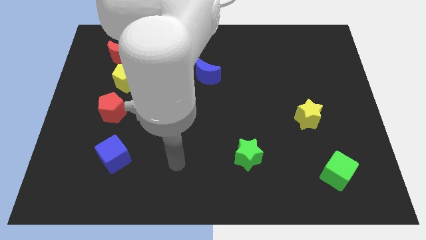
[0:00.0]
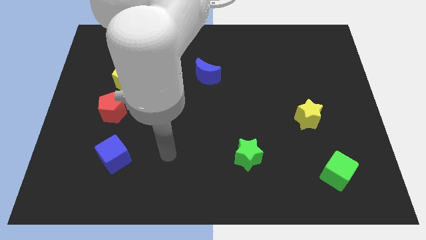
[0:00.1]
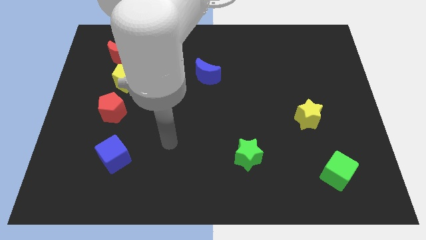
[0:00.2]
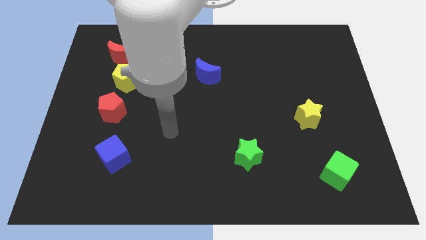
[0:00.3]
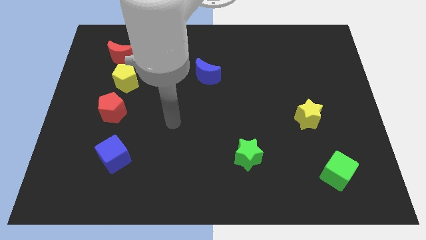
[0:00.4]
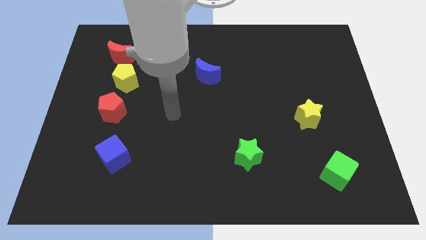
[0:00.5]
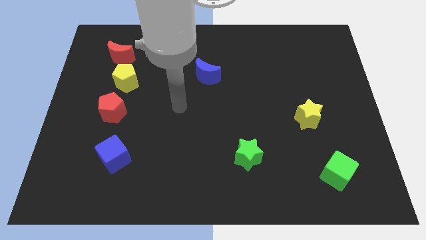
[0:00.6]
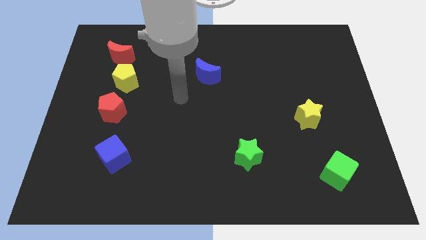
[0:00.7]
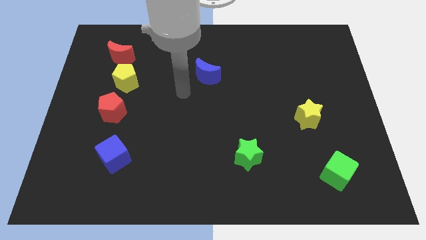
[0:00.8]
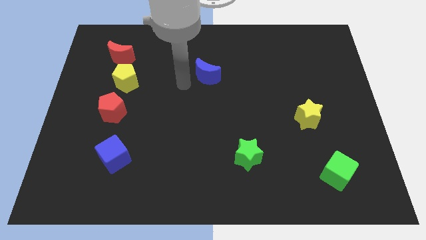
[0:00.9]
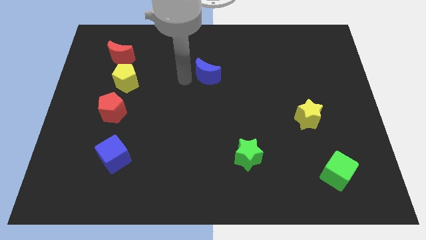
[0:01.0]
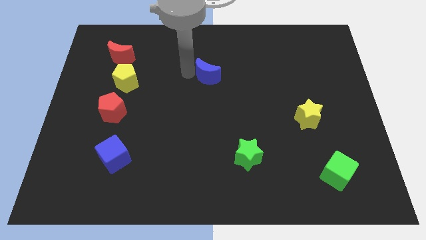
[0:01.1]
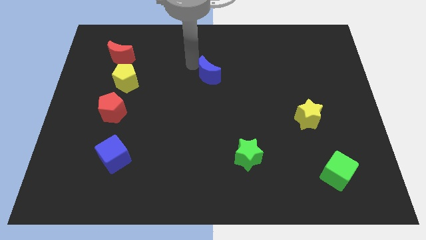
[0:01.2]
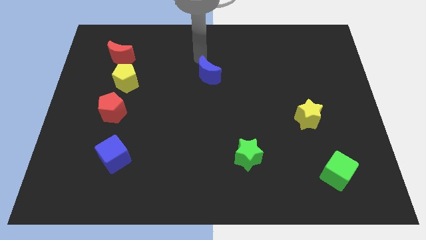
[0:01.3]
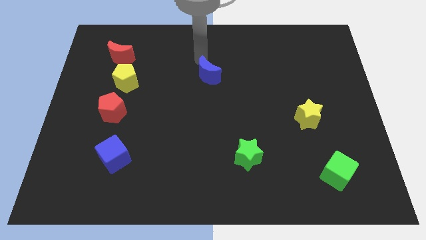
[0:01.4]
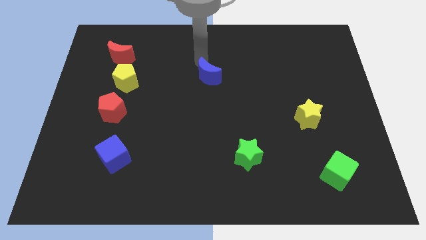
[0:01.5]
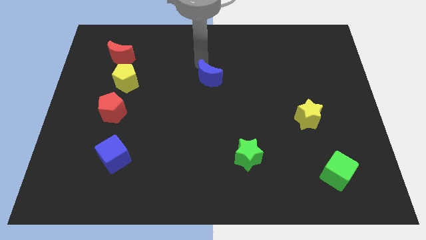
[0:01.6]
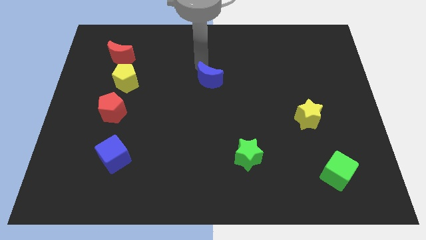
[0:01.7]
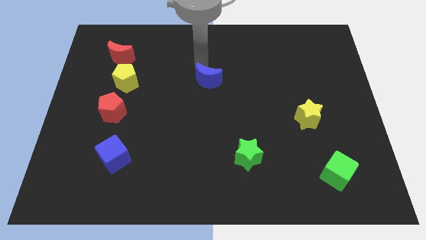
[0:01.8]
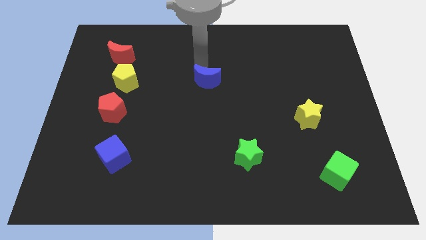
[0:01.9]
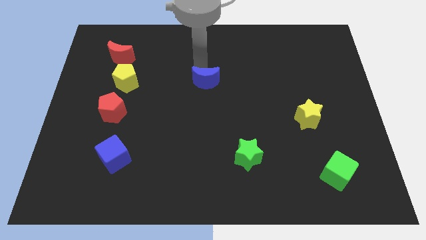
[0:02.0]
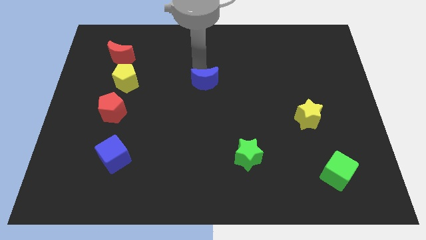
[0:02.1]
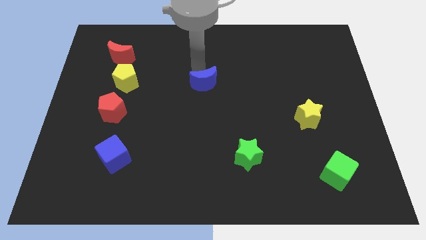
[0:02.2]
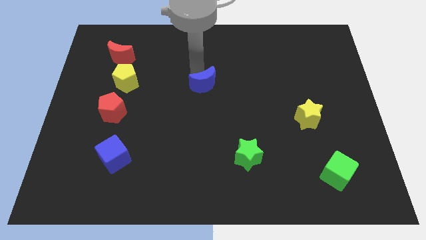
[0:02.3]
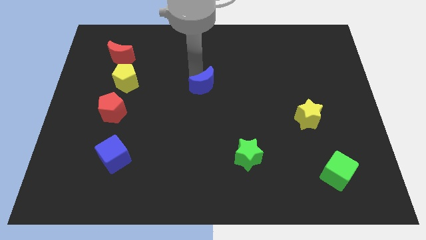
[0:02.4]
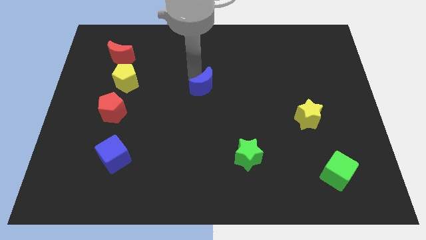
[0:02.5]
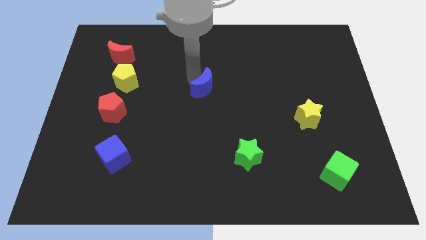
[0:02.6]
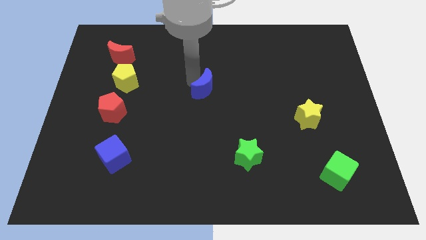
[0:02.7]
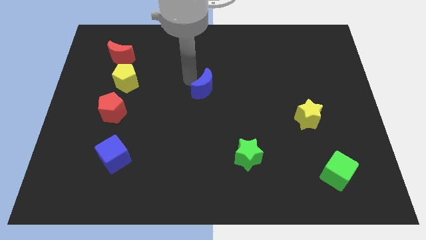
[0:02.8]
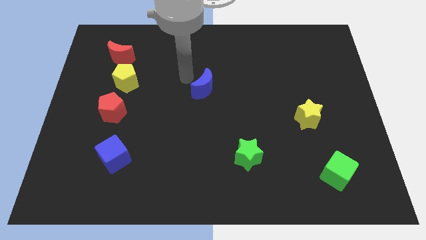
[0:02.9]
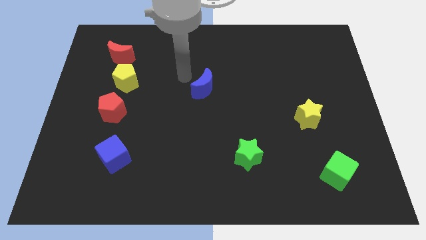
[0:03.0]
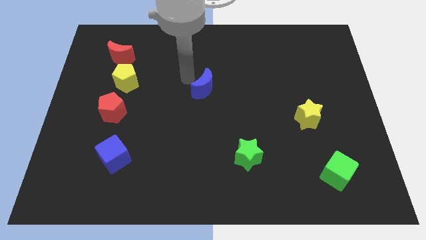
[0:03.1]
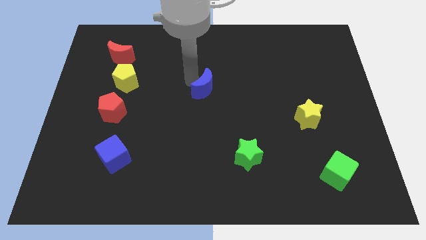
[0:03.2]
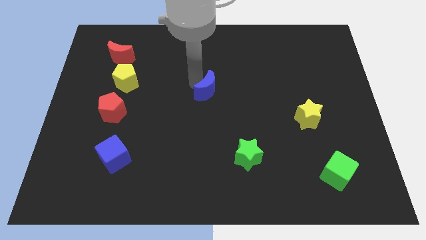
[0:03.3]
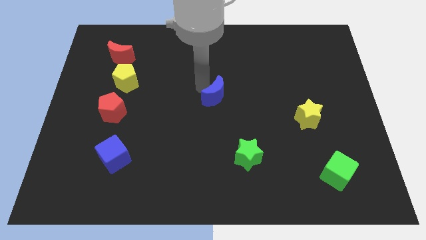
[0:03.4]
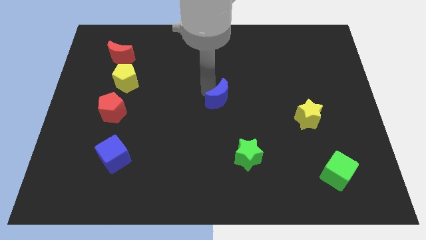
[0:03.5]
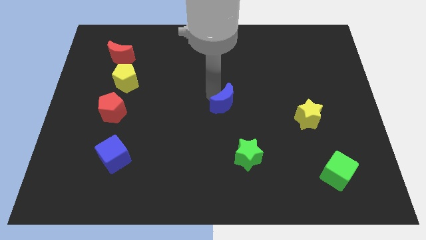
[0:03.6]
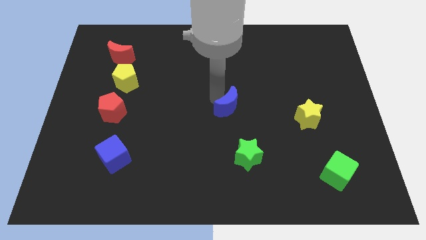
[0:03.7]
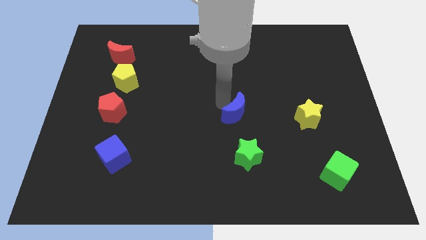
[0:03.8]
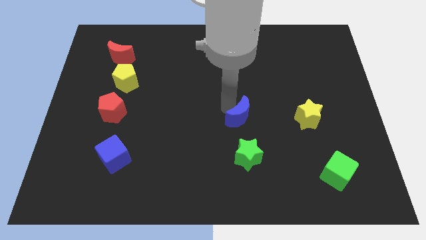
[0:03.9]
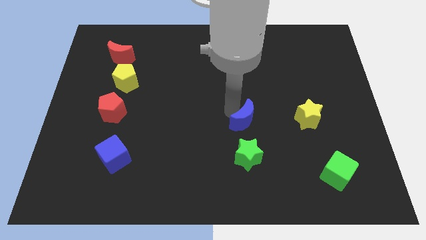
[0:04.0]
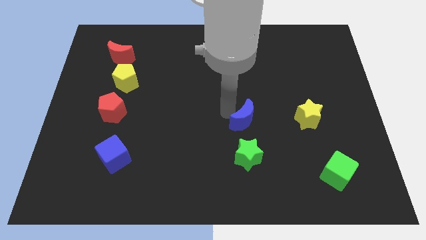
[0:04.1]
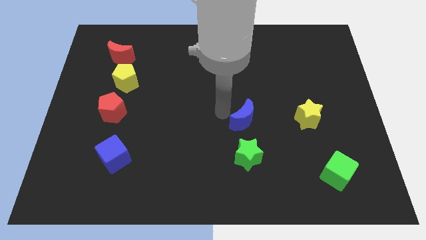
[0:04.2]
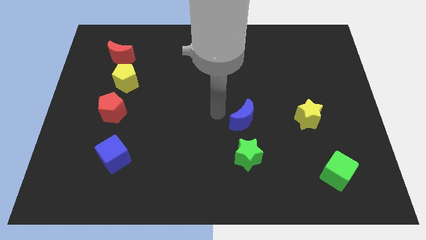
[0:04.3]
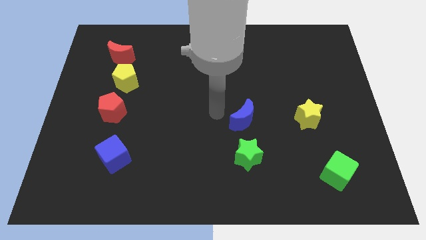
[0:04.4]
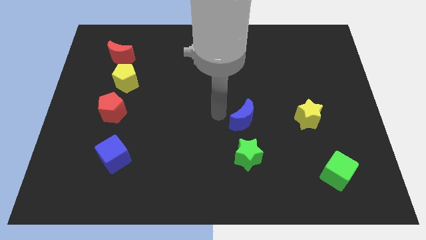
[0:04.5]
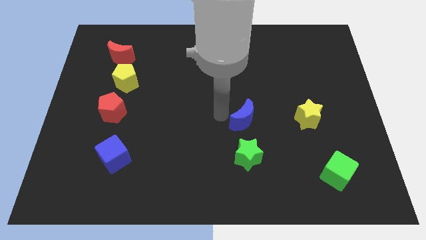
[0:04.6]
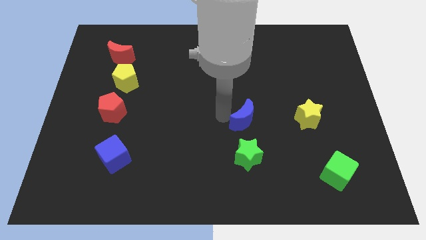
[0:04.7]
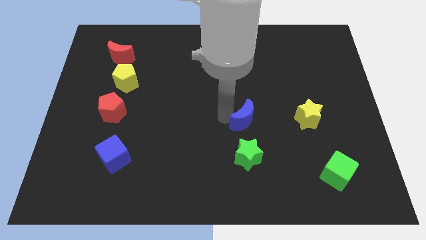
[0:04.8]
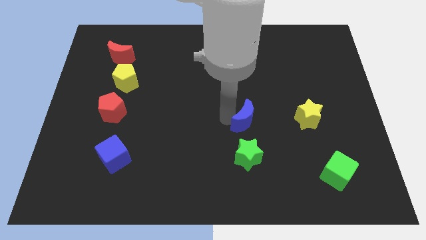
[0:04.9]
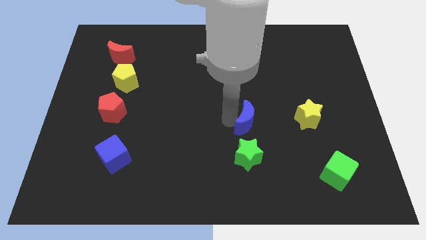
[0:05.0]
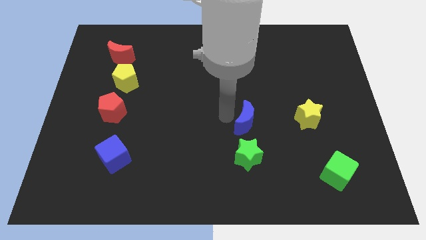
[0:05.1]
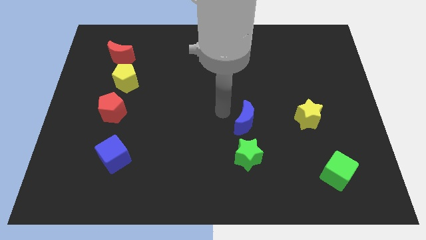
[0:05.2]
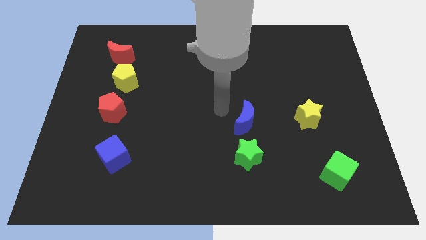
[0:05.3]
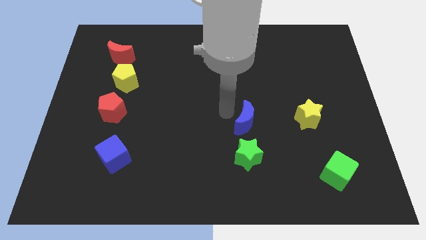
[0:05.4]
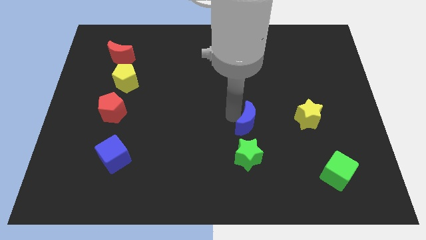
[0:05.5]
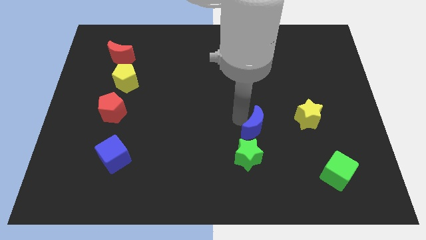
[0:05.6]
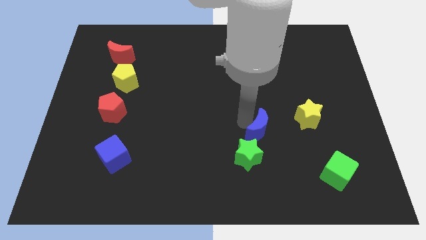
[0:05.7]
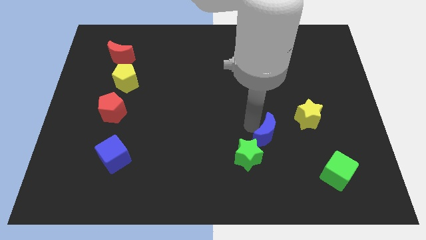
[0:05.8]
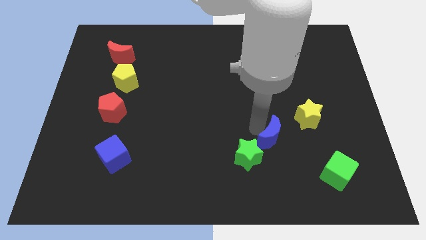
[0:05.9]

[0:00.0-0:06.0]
push the blue moon just right of the green star

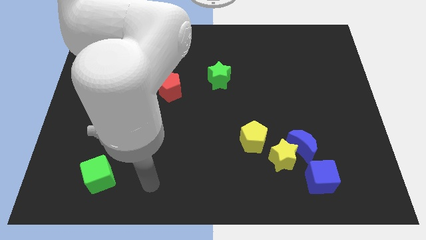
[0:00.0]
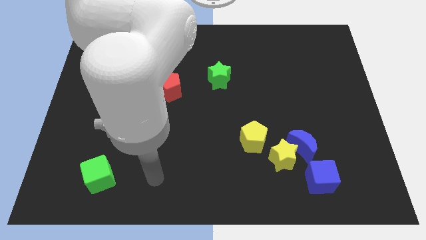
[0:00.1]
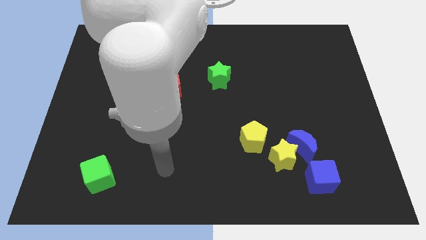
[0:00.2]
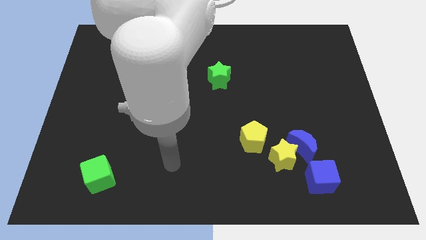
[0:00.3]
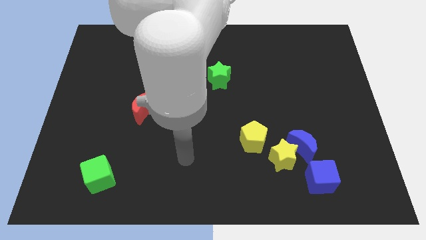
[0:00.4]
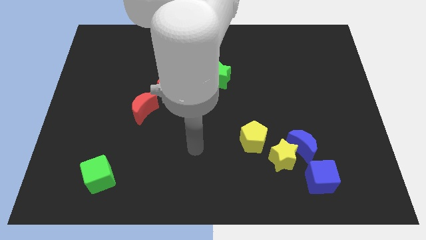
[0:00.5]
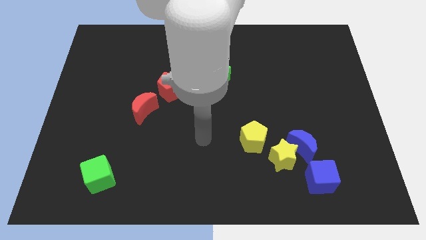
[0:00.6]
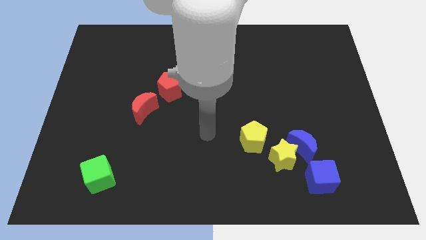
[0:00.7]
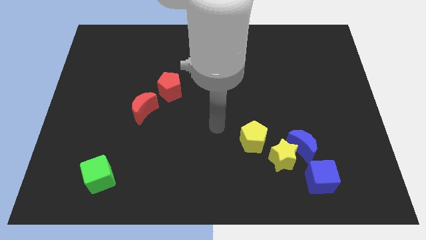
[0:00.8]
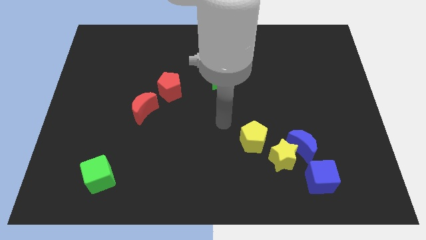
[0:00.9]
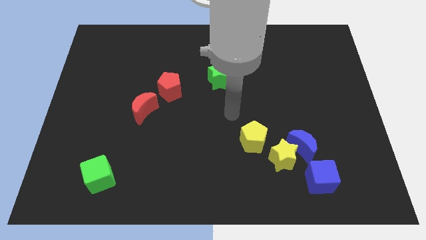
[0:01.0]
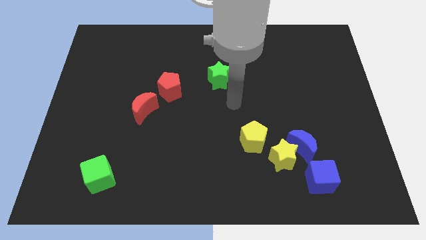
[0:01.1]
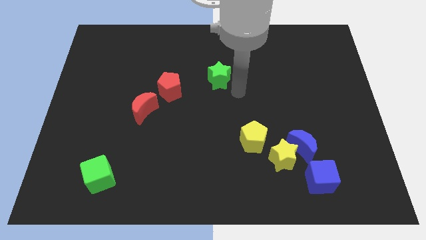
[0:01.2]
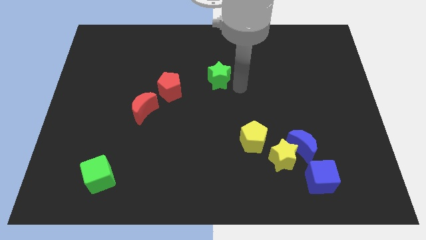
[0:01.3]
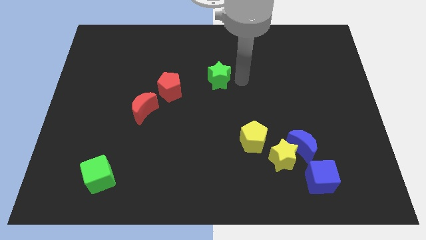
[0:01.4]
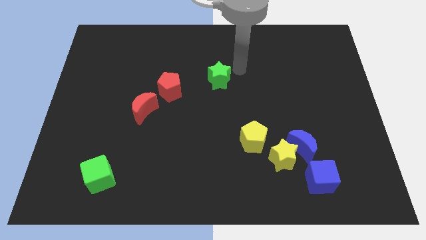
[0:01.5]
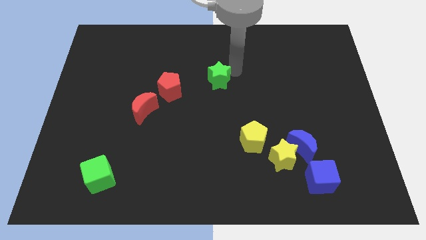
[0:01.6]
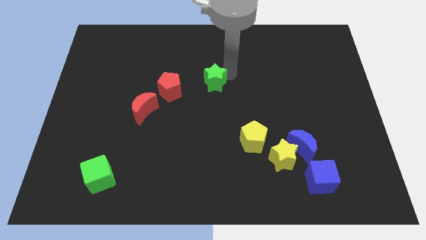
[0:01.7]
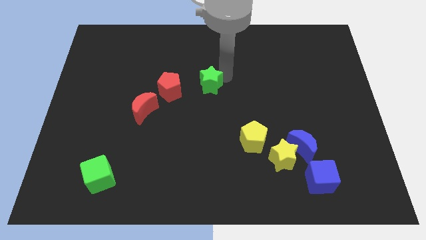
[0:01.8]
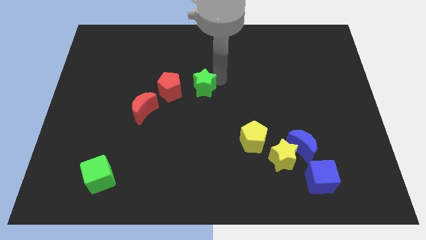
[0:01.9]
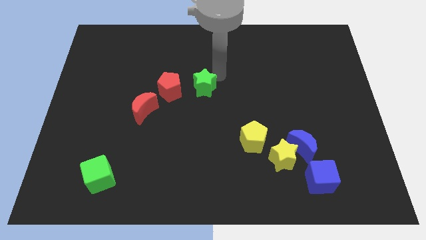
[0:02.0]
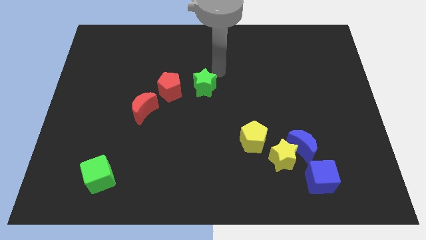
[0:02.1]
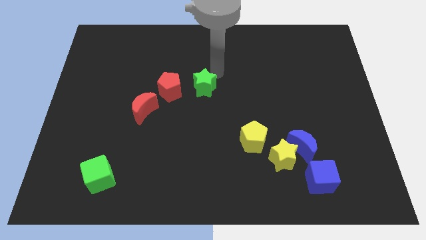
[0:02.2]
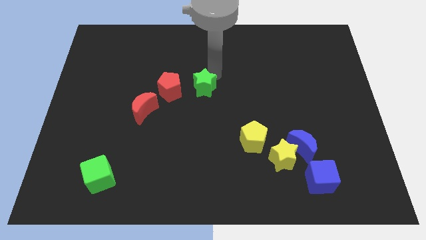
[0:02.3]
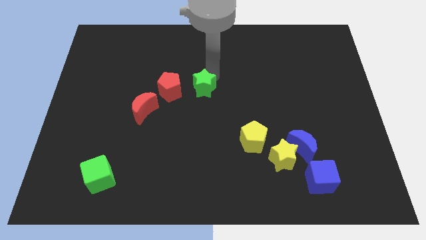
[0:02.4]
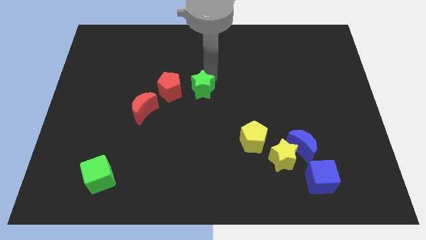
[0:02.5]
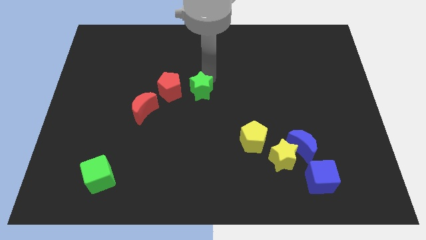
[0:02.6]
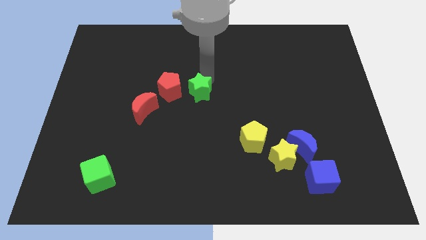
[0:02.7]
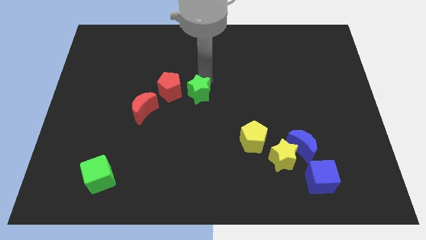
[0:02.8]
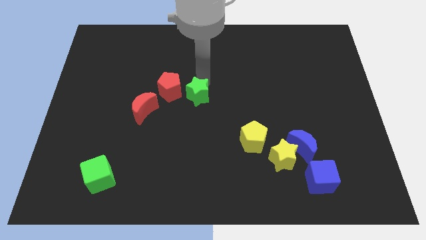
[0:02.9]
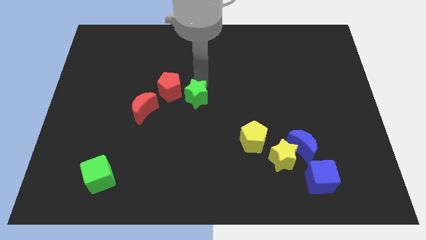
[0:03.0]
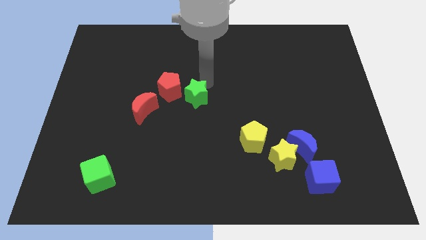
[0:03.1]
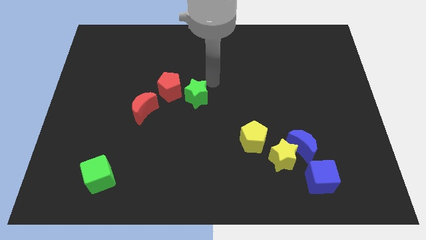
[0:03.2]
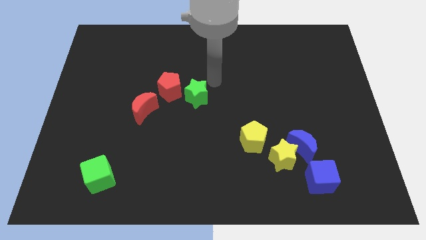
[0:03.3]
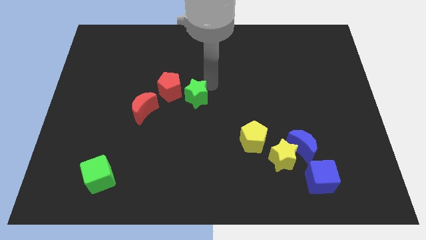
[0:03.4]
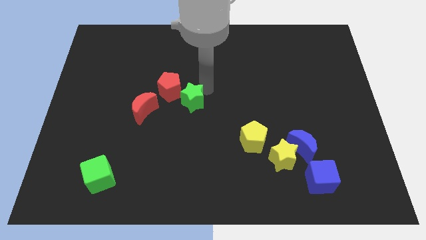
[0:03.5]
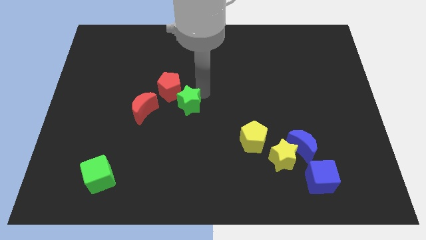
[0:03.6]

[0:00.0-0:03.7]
push the green star to the bottom of the red pentagon
